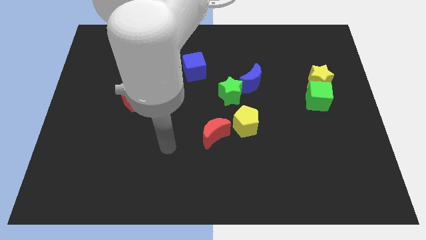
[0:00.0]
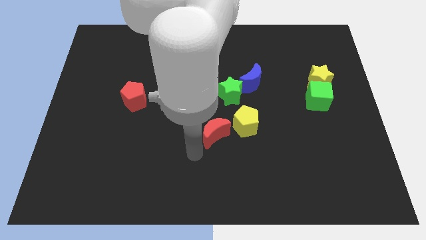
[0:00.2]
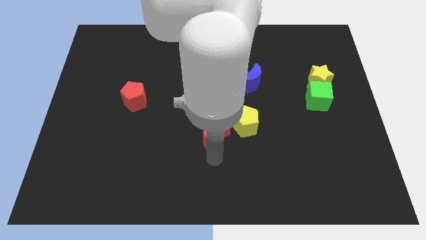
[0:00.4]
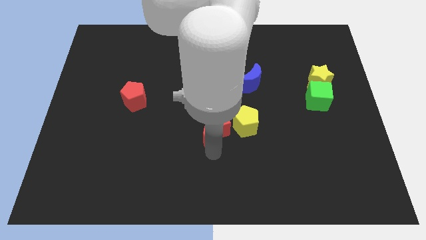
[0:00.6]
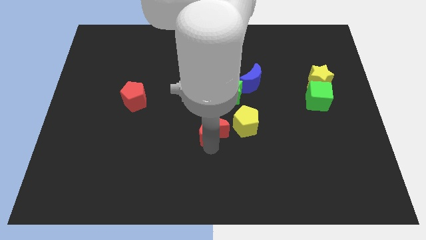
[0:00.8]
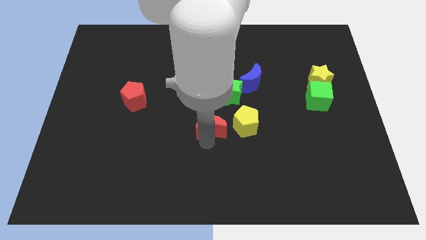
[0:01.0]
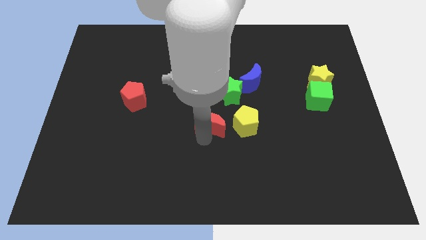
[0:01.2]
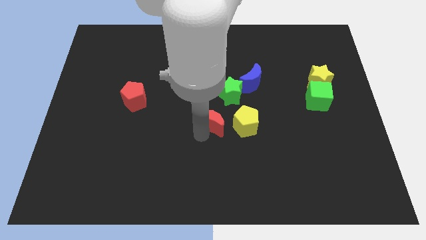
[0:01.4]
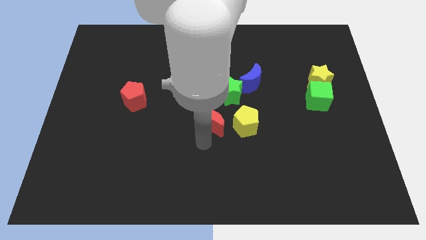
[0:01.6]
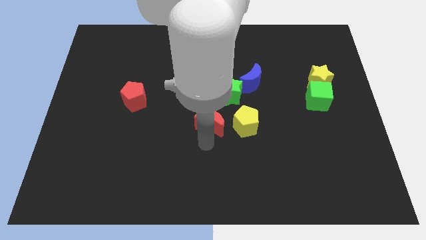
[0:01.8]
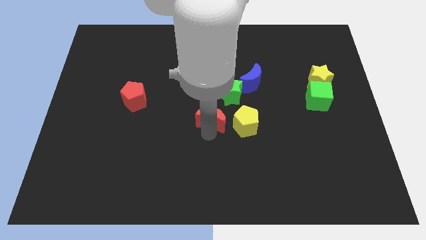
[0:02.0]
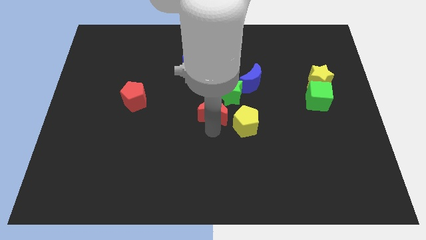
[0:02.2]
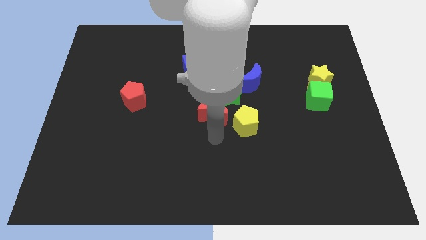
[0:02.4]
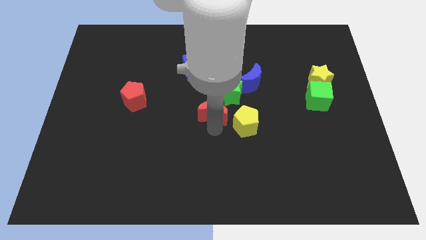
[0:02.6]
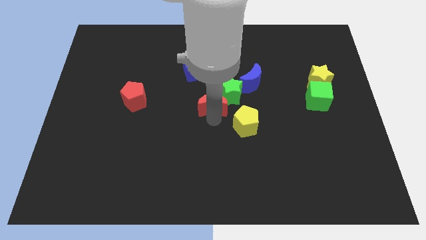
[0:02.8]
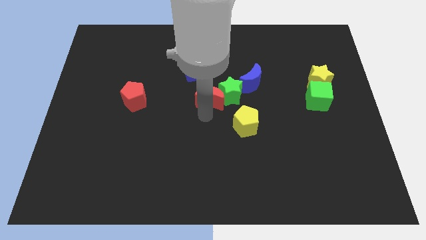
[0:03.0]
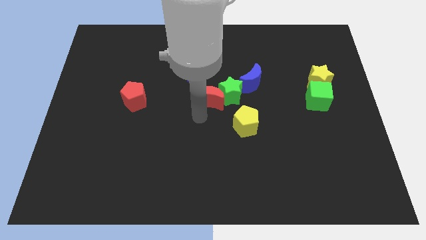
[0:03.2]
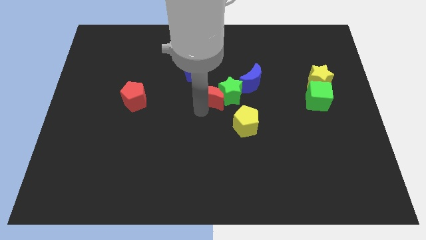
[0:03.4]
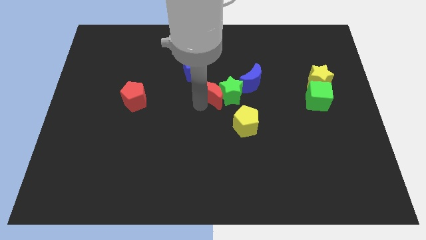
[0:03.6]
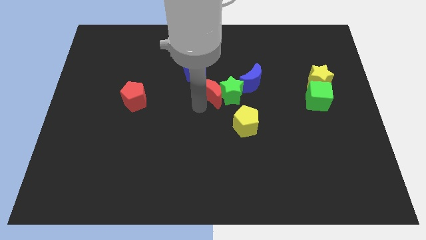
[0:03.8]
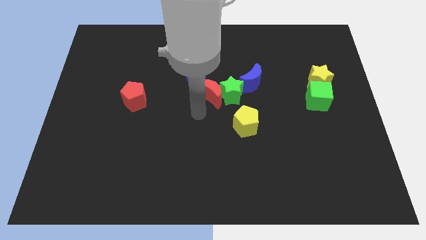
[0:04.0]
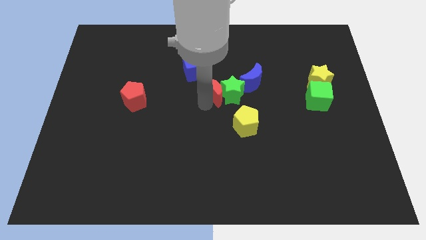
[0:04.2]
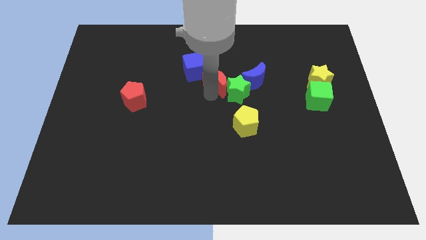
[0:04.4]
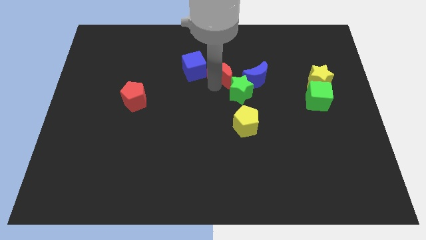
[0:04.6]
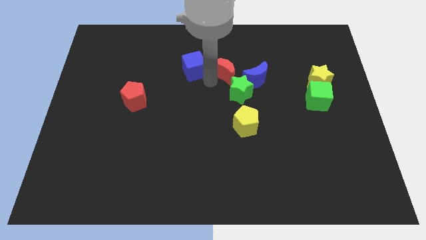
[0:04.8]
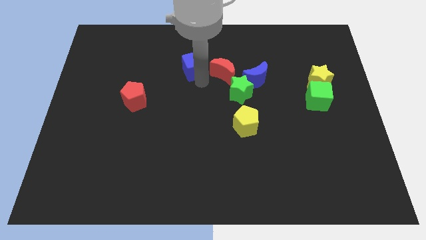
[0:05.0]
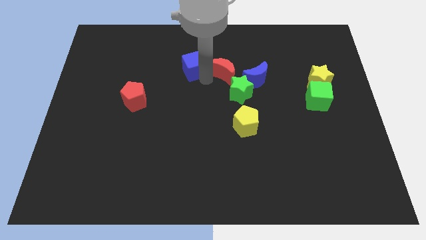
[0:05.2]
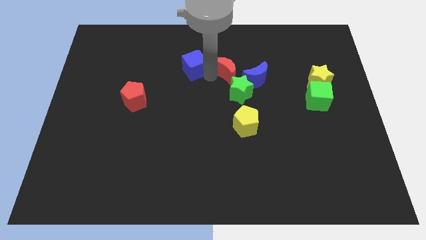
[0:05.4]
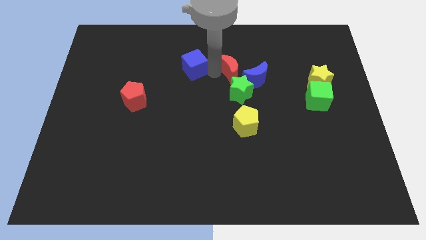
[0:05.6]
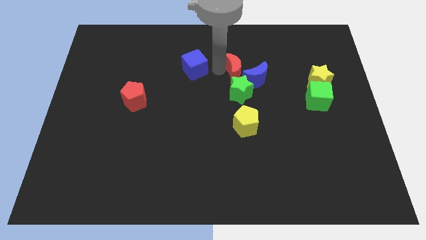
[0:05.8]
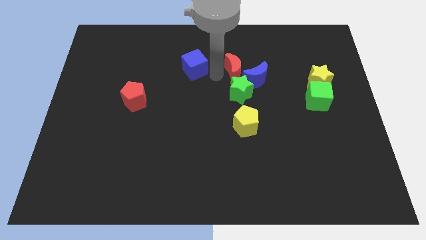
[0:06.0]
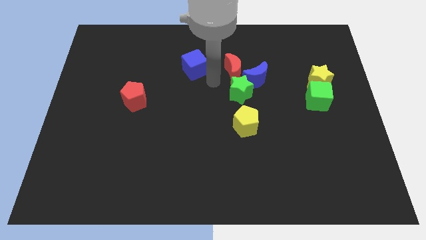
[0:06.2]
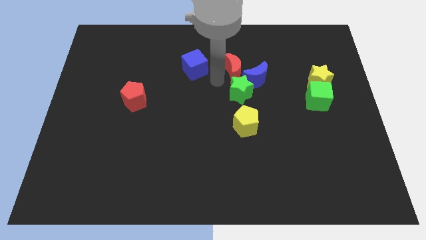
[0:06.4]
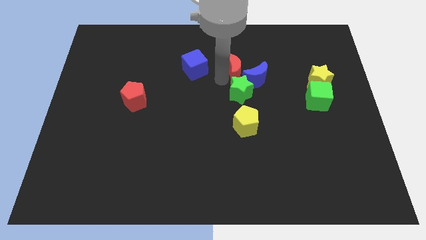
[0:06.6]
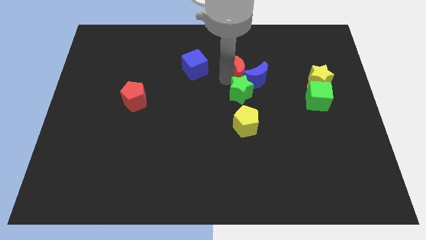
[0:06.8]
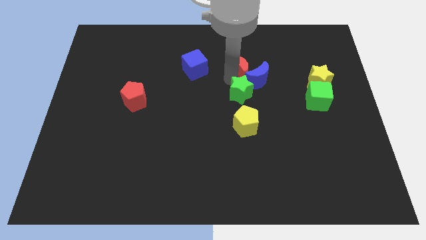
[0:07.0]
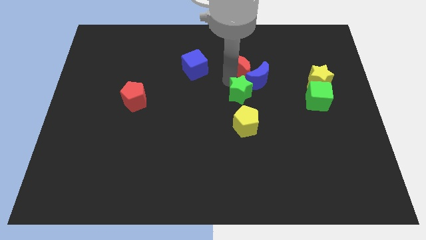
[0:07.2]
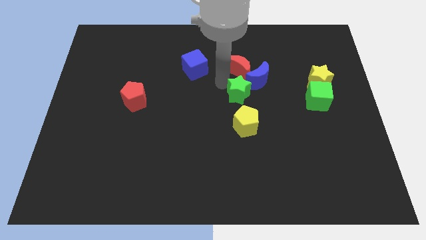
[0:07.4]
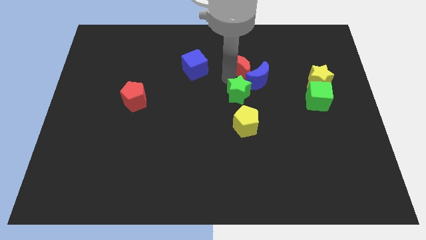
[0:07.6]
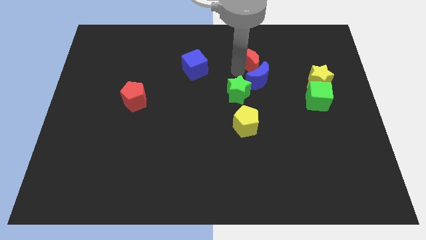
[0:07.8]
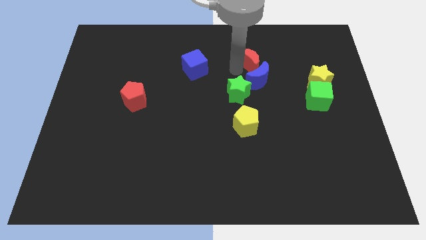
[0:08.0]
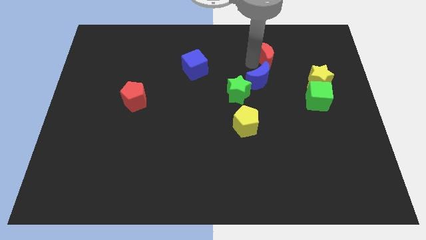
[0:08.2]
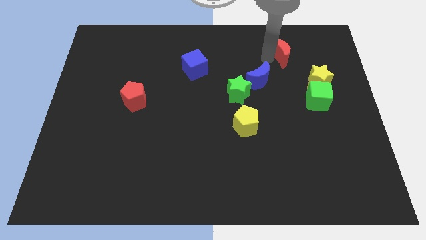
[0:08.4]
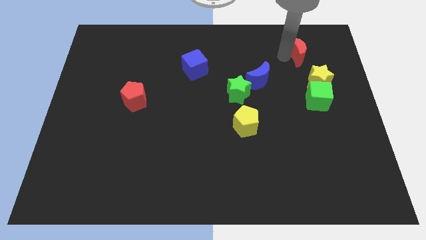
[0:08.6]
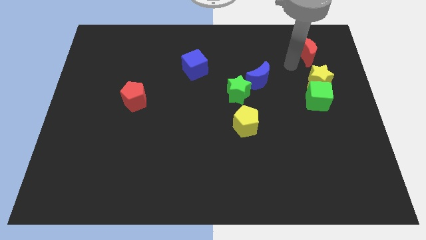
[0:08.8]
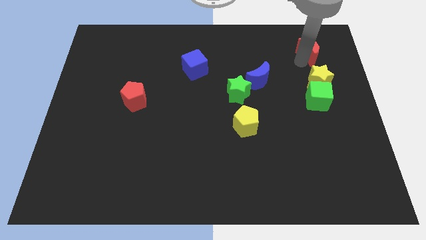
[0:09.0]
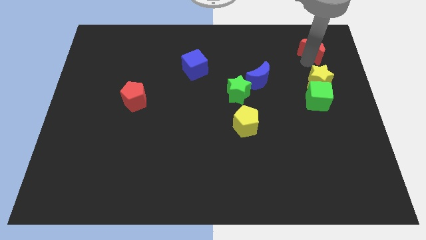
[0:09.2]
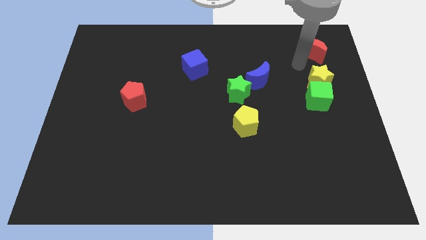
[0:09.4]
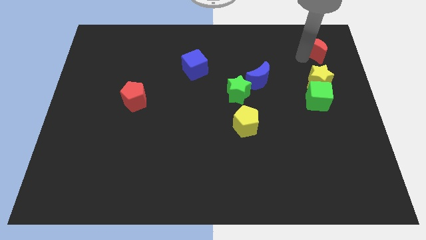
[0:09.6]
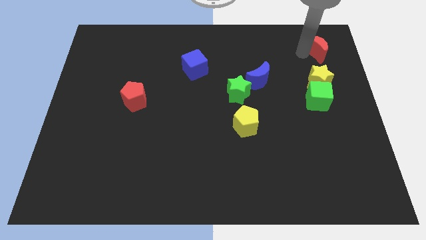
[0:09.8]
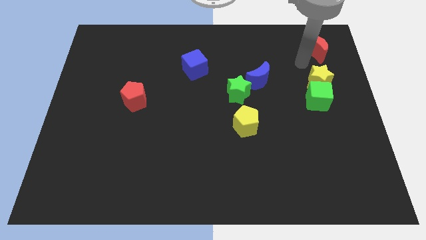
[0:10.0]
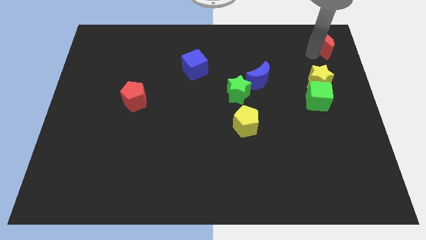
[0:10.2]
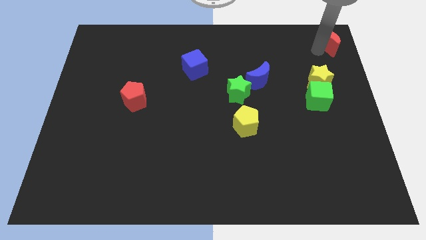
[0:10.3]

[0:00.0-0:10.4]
slide the red moon to the top right of the board

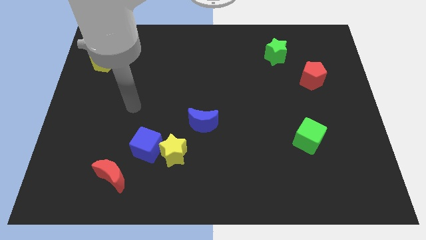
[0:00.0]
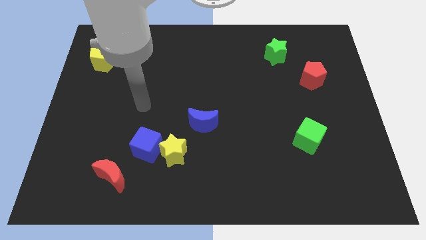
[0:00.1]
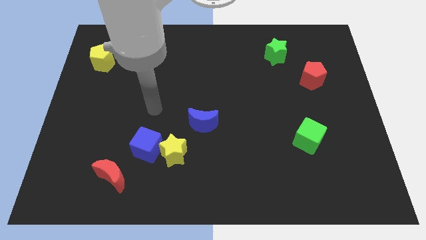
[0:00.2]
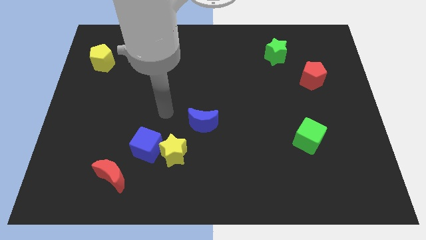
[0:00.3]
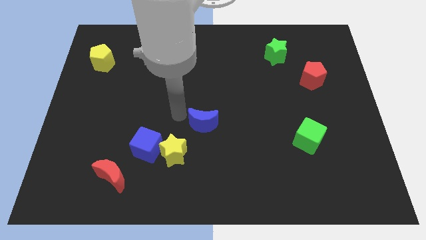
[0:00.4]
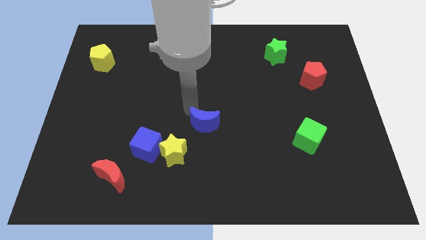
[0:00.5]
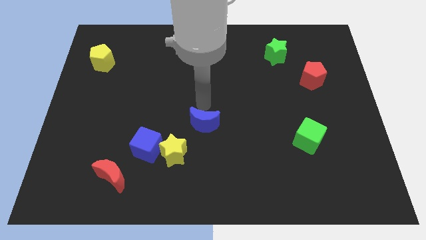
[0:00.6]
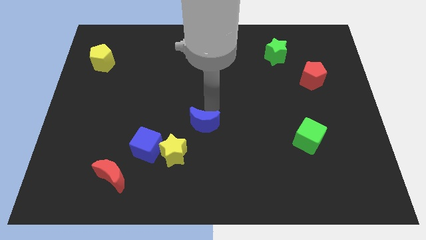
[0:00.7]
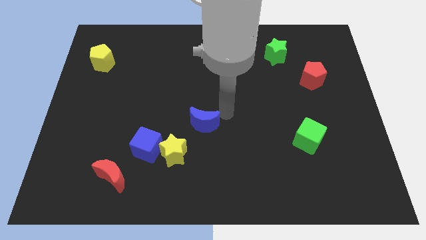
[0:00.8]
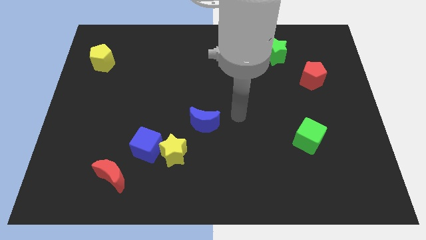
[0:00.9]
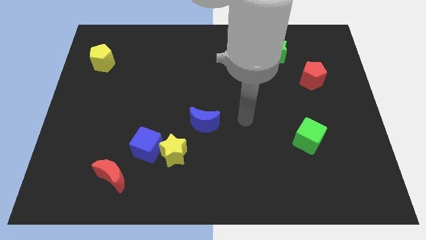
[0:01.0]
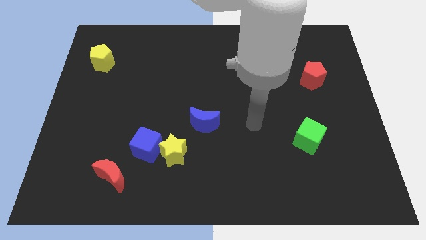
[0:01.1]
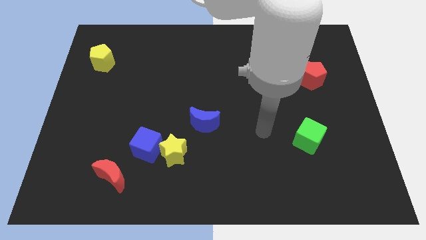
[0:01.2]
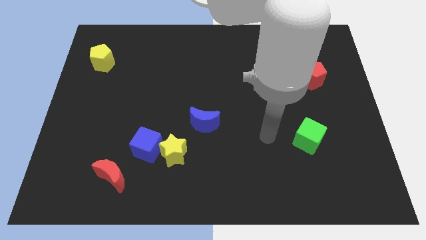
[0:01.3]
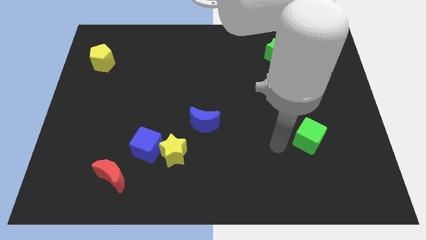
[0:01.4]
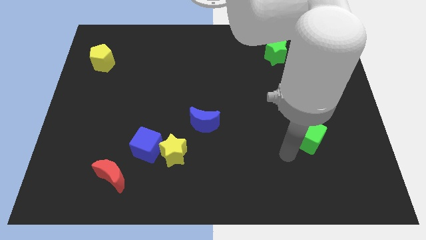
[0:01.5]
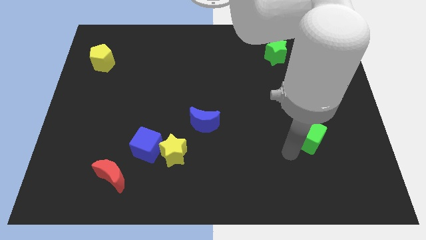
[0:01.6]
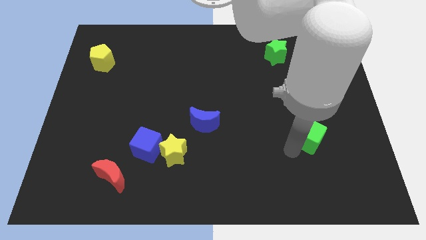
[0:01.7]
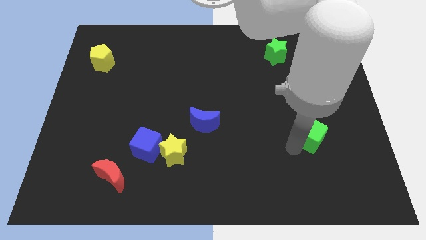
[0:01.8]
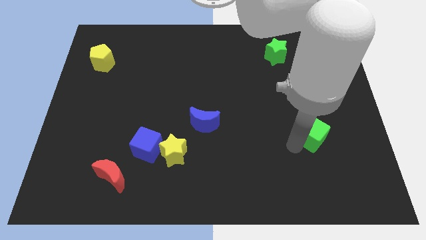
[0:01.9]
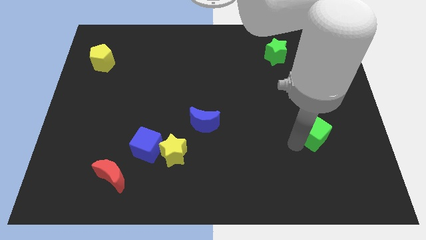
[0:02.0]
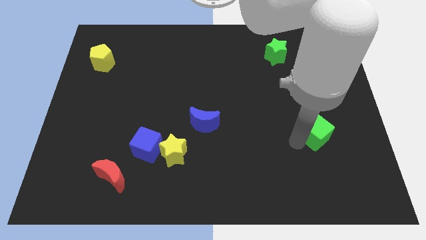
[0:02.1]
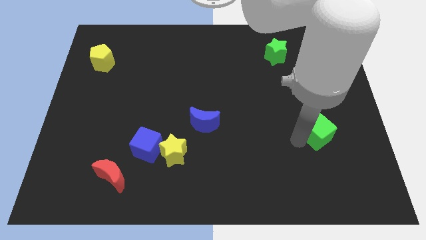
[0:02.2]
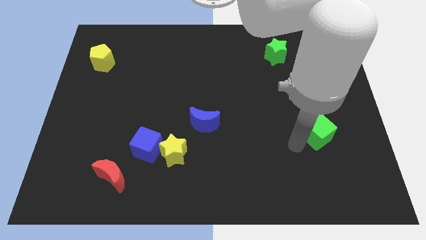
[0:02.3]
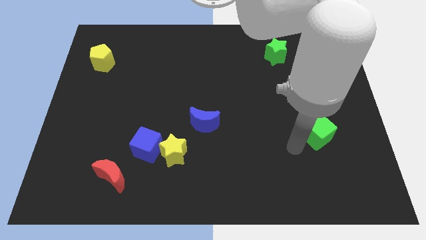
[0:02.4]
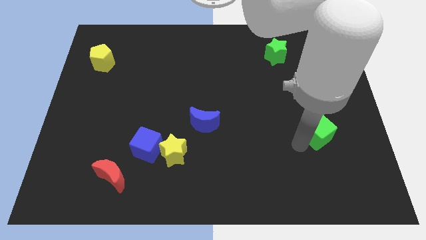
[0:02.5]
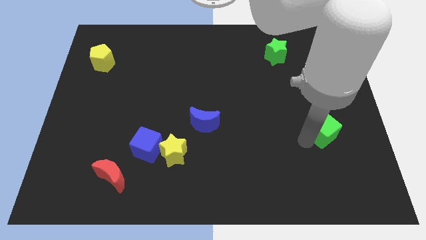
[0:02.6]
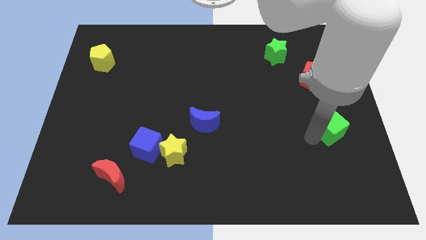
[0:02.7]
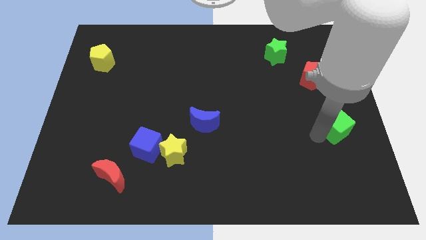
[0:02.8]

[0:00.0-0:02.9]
put the green cube to the right side of the board
